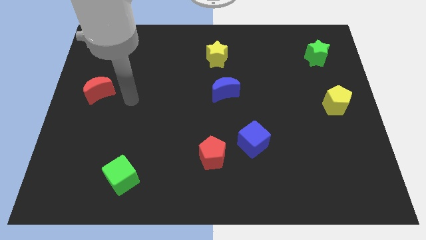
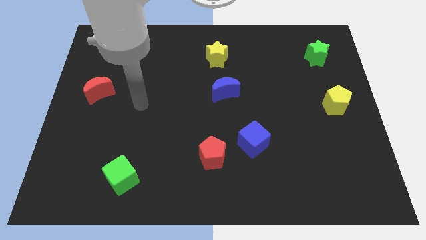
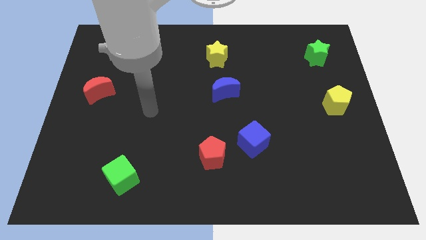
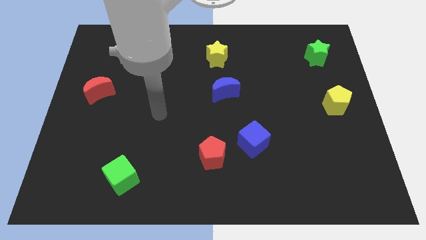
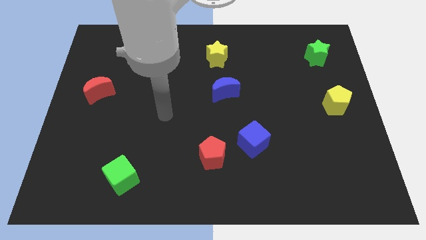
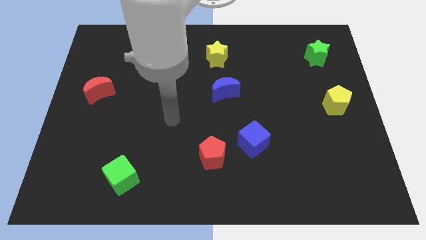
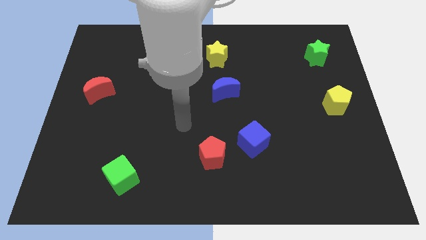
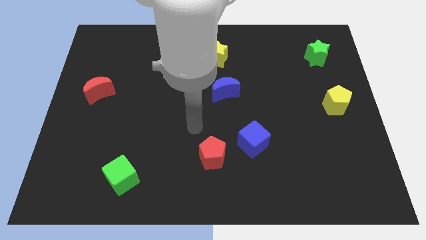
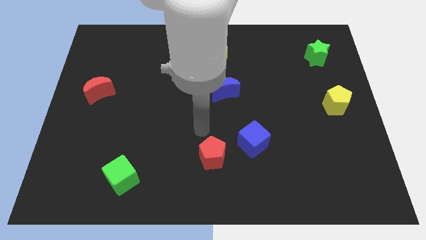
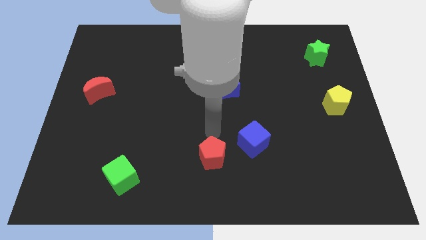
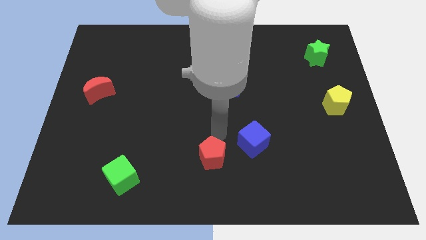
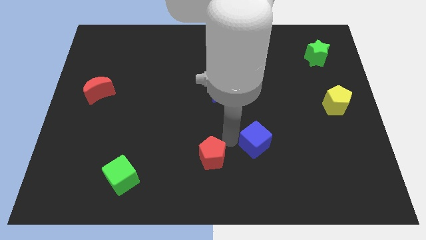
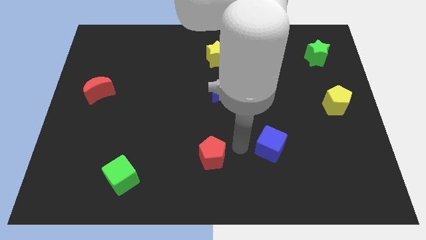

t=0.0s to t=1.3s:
move the red pentagon away from the blue cube

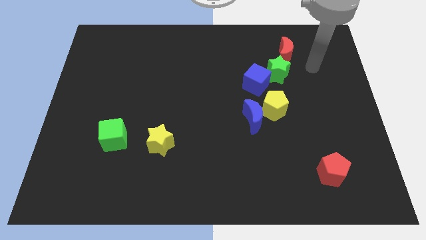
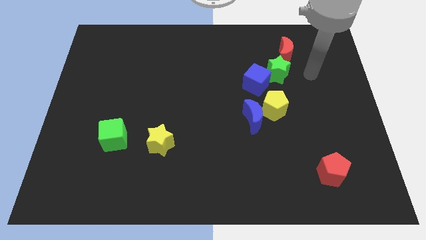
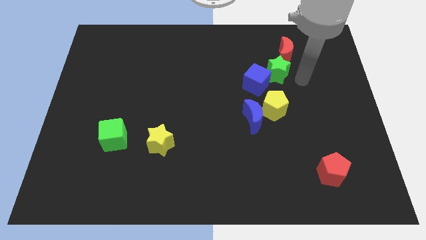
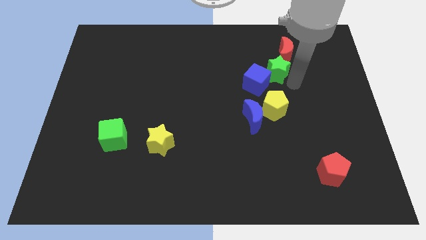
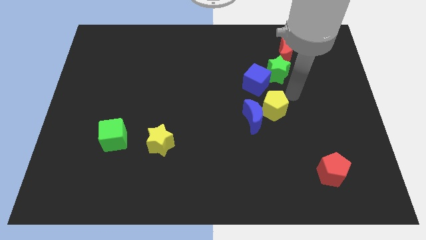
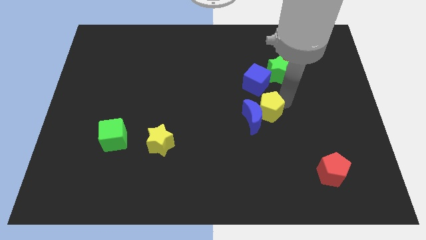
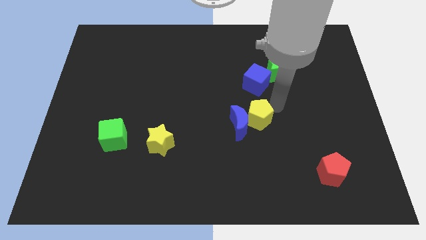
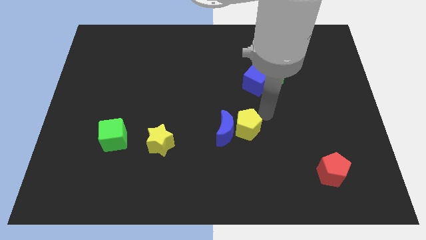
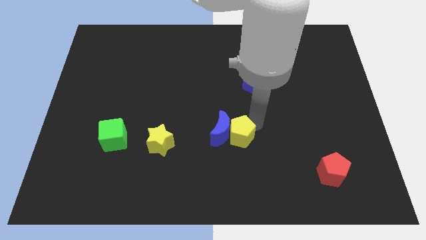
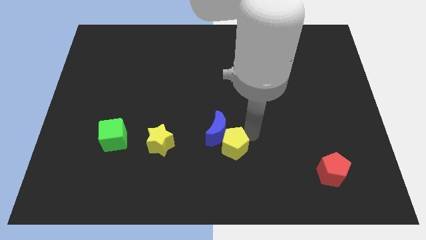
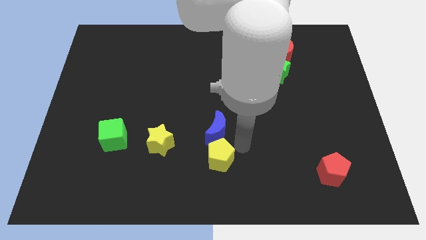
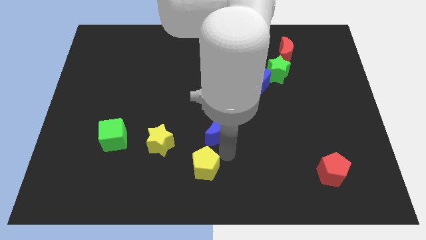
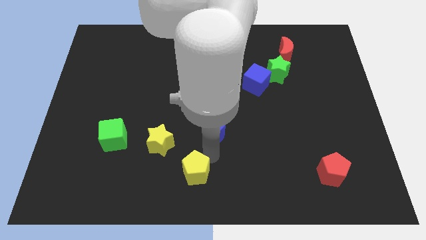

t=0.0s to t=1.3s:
separate the blue moon from the yellow pentagon

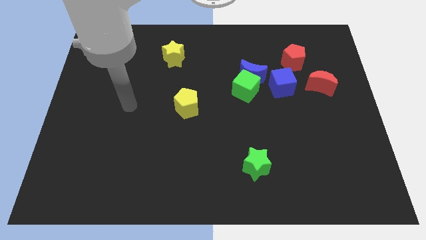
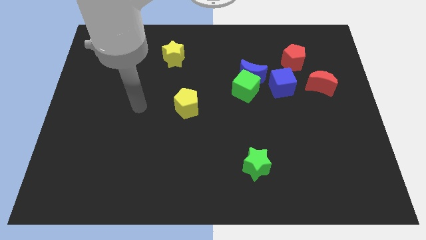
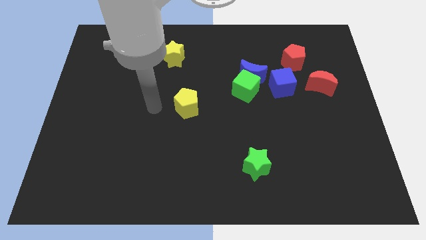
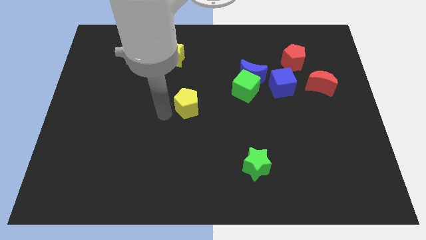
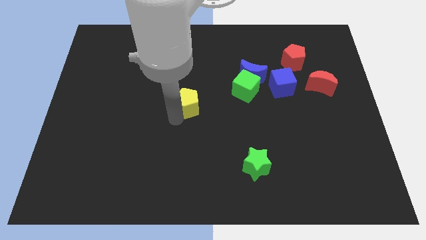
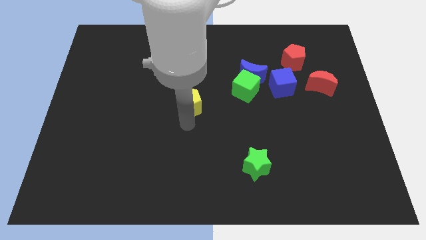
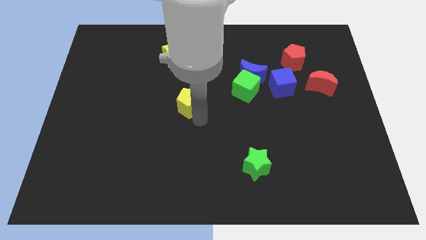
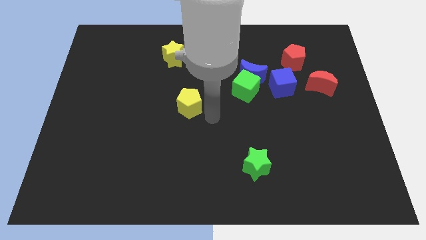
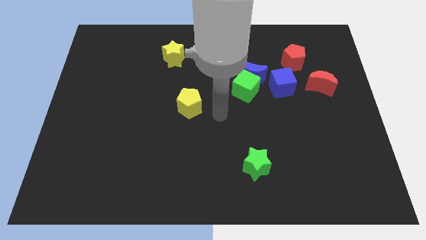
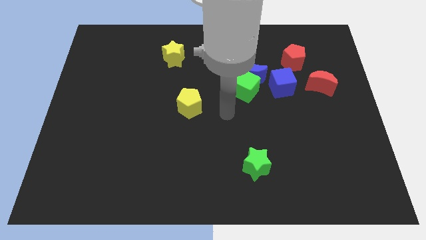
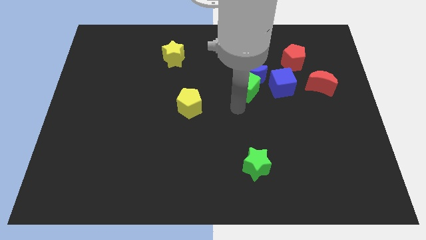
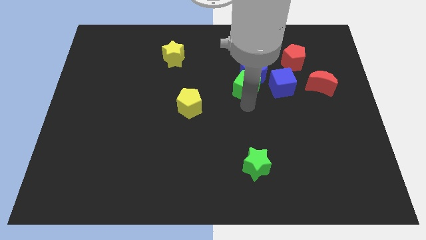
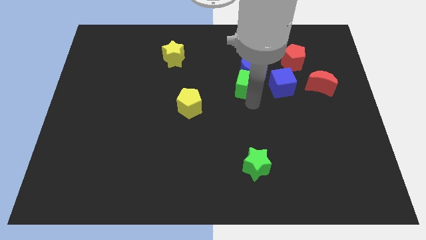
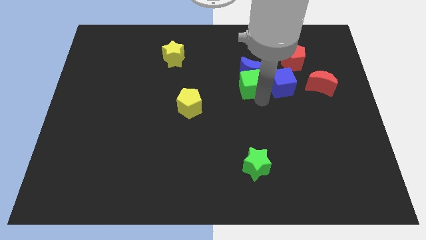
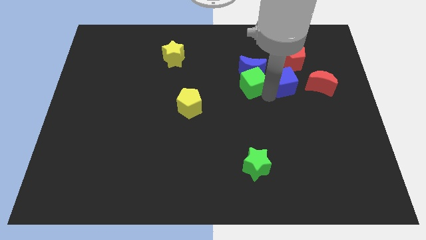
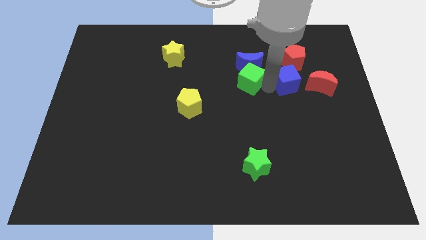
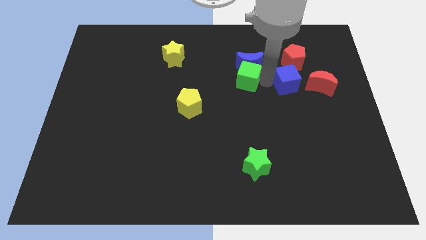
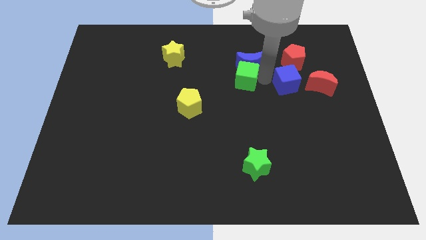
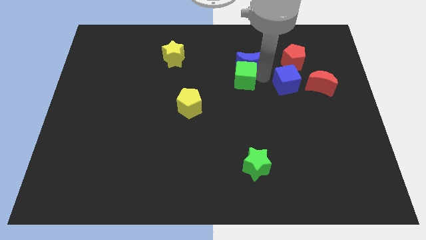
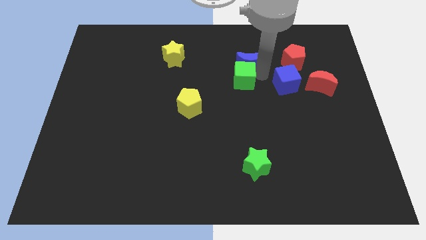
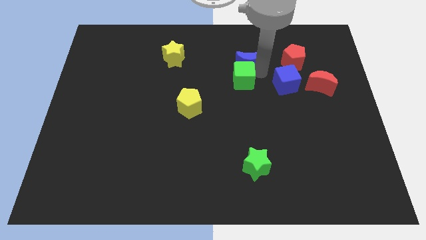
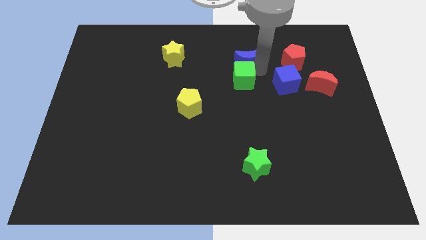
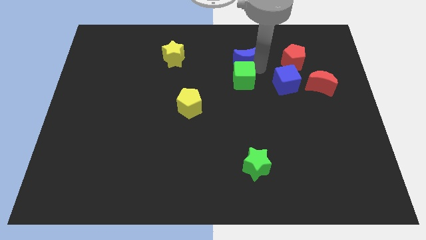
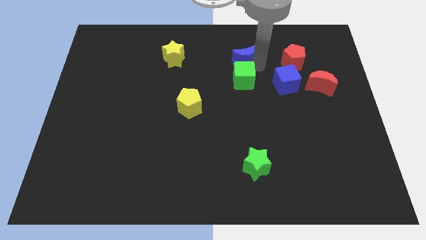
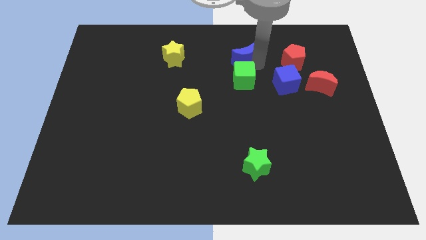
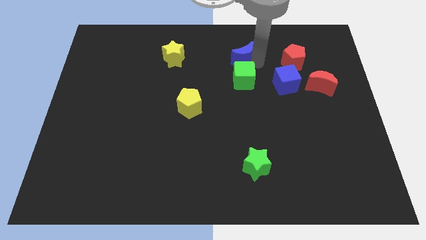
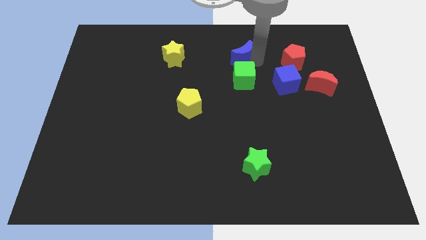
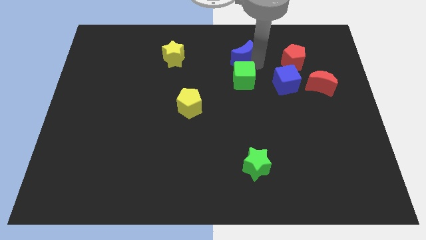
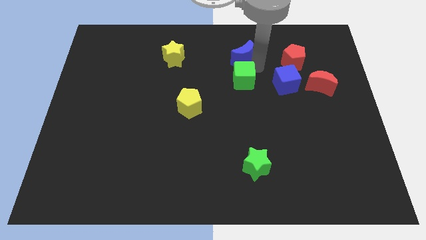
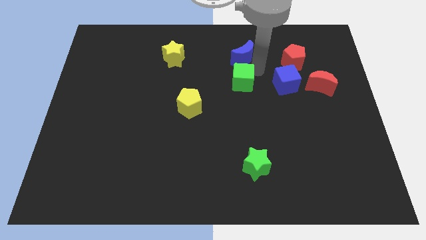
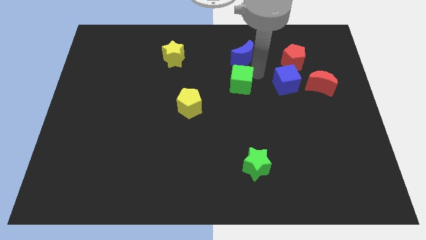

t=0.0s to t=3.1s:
pull the blue moon apart from the green cube and blue cube

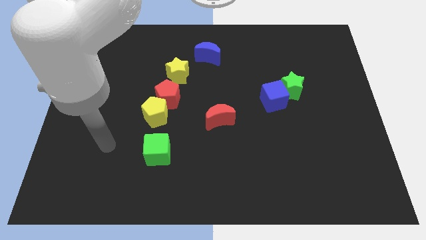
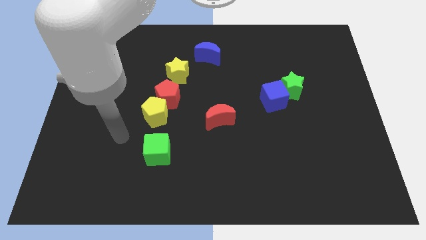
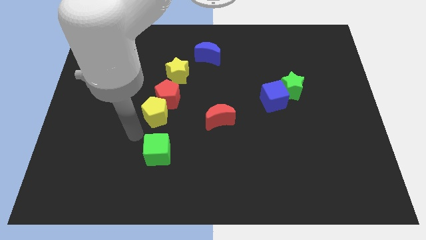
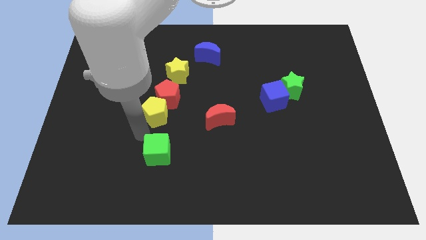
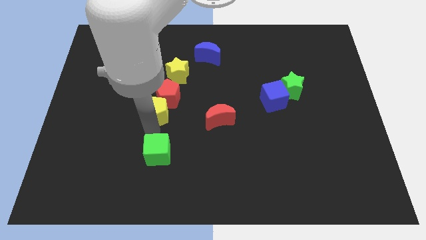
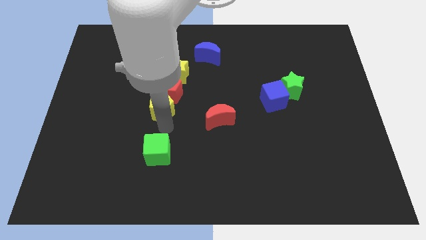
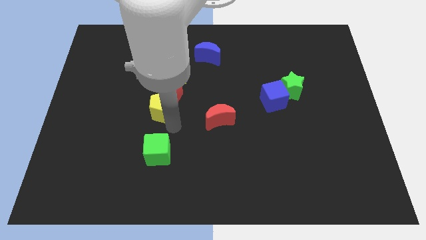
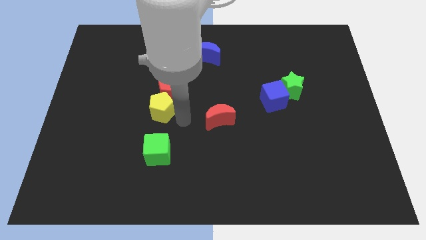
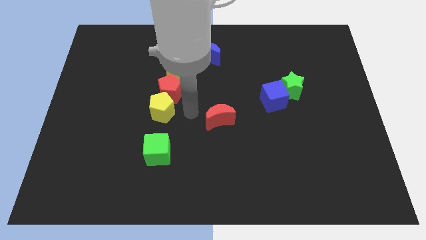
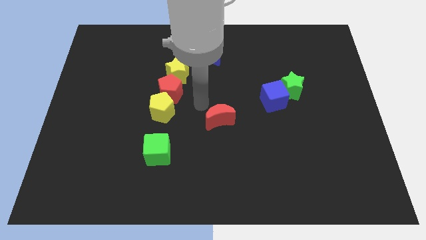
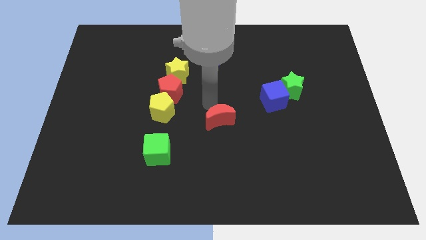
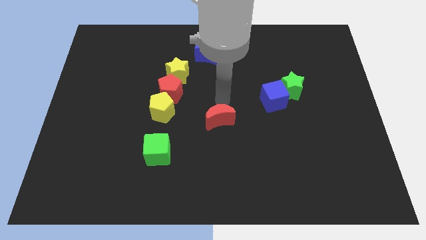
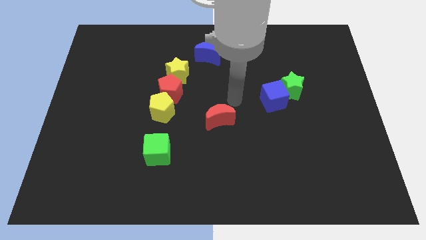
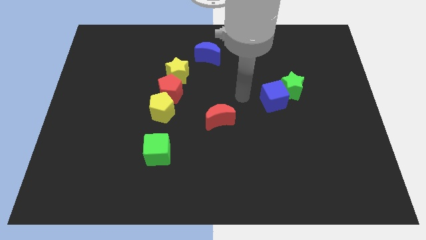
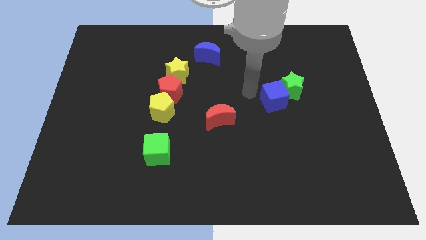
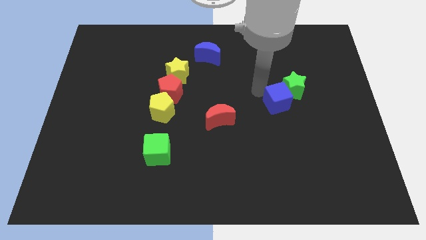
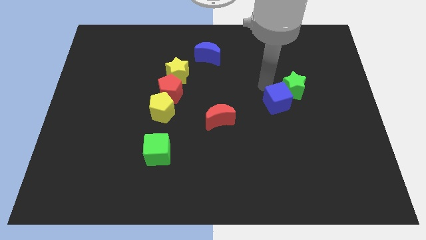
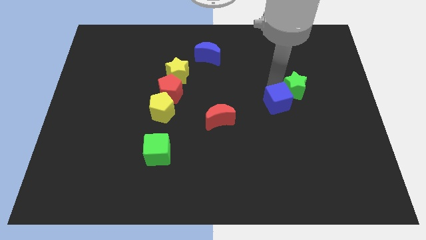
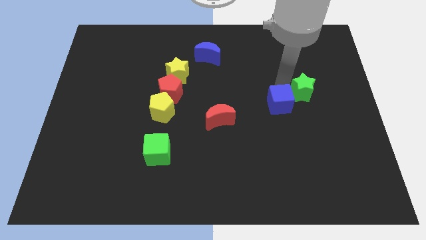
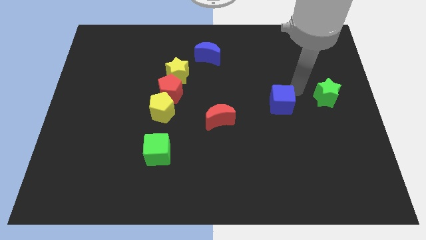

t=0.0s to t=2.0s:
move the blue cube away from the green star

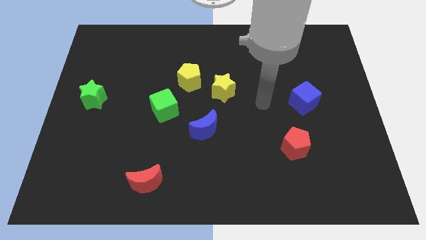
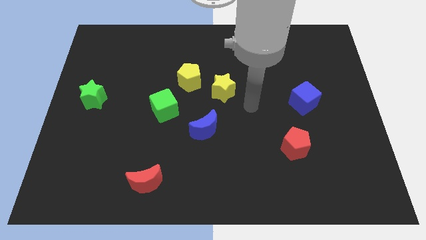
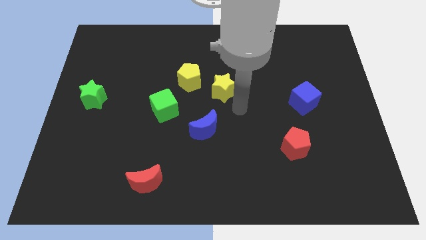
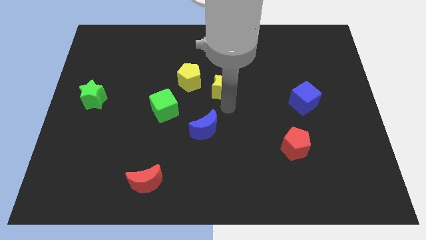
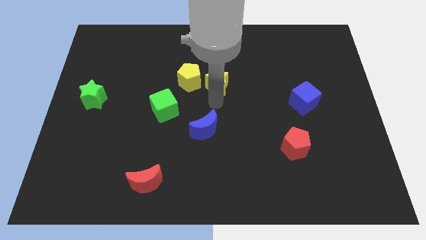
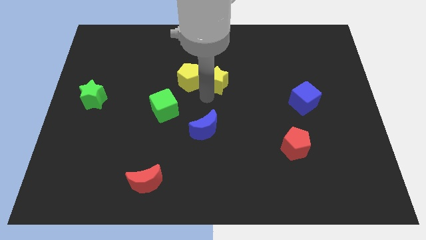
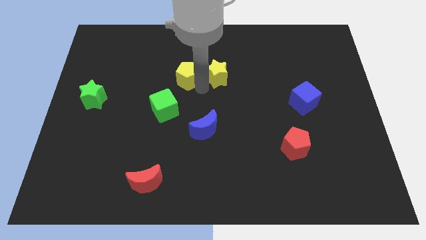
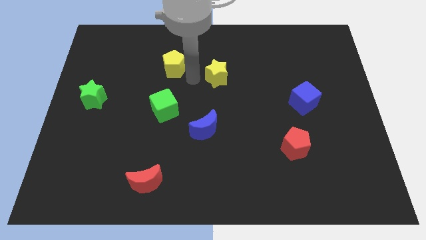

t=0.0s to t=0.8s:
pull the yellow star apart from the yellow pentagon

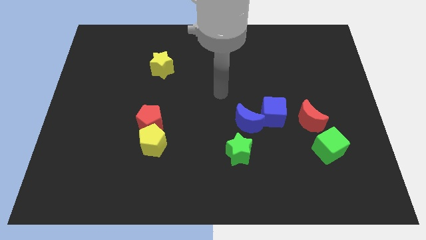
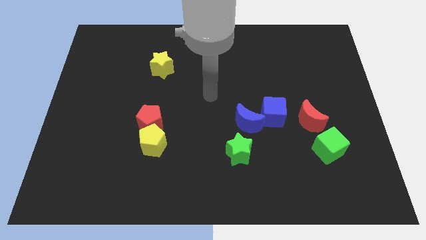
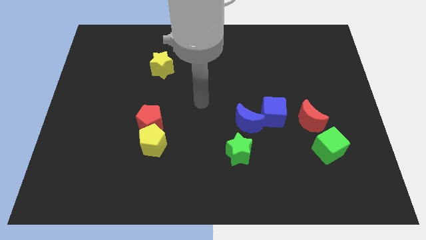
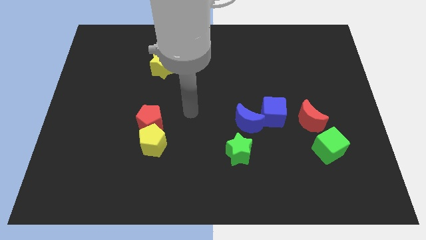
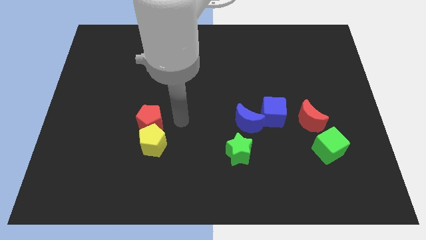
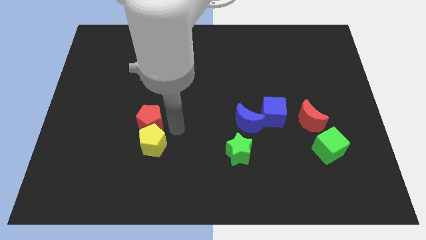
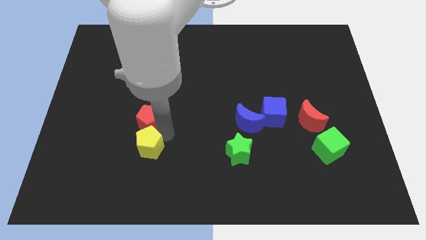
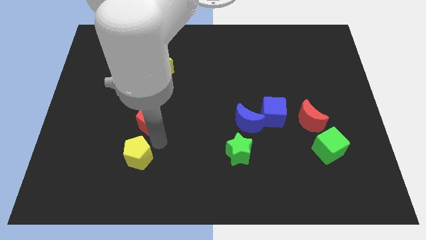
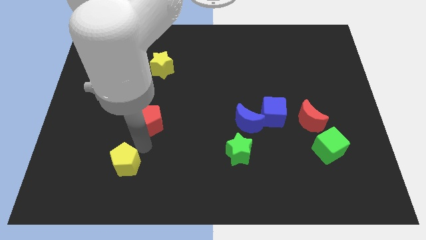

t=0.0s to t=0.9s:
move the red pentagon away from the yellow pentagon
